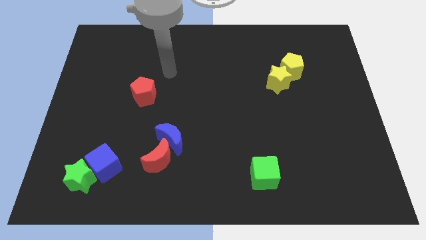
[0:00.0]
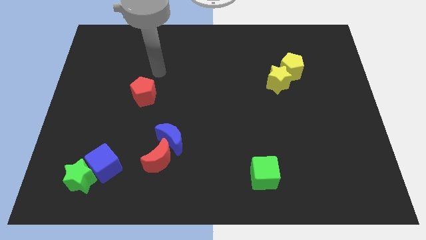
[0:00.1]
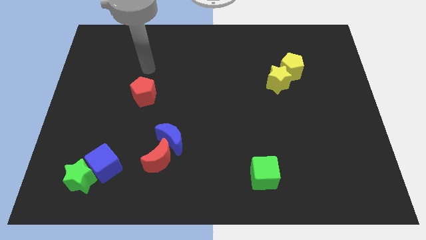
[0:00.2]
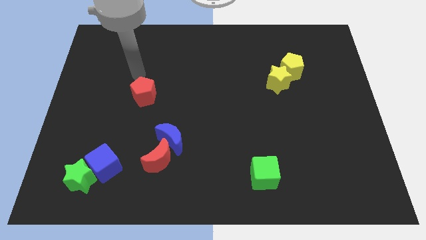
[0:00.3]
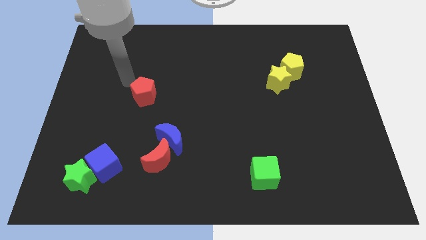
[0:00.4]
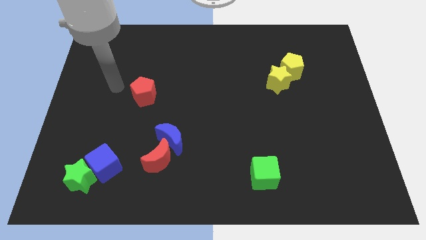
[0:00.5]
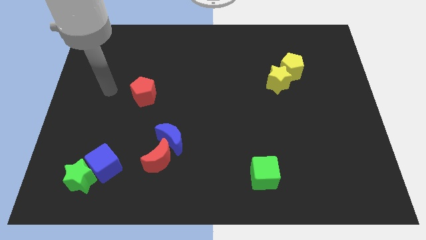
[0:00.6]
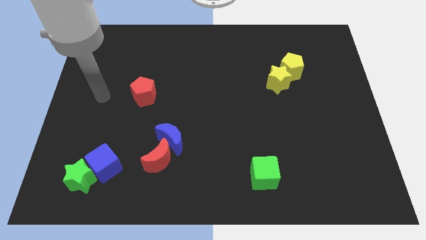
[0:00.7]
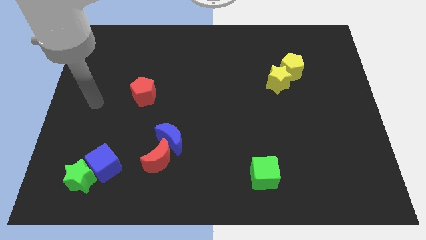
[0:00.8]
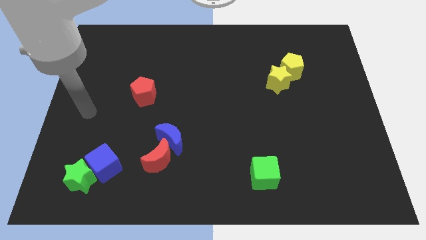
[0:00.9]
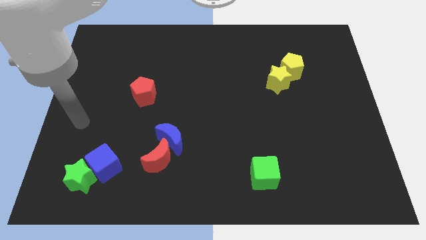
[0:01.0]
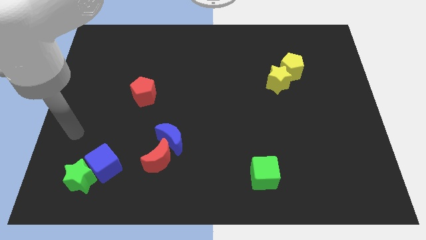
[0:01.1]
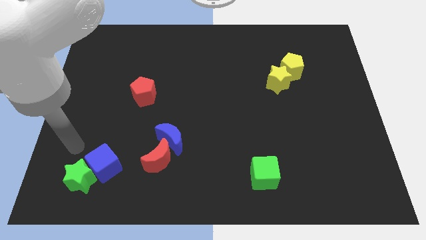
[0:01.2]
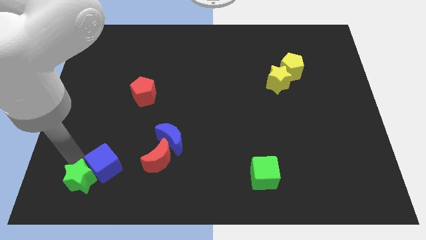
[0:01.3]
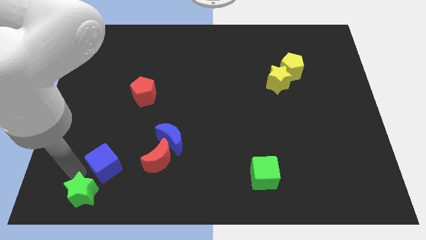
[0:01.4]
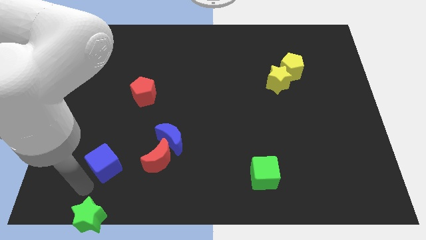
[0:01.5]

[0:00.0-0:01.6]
move the blue cube away from the green star

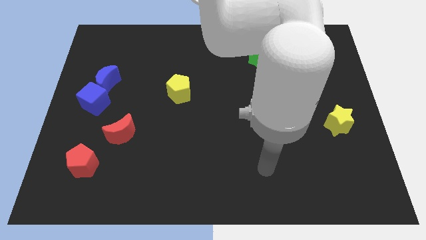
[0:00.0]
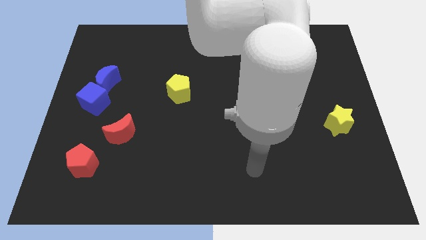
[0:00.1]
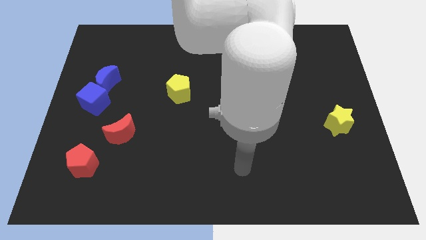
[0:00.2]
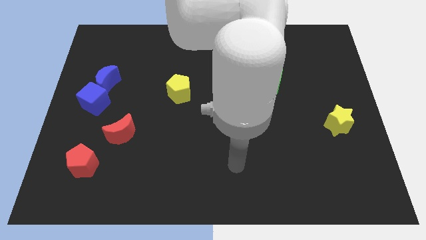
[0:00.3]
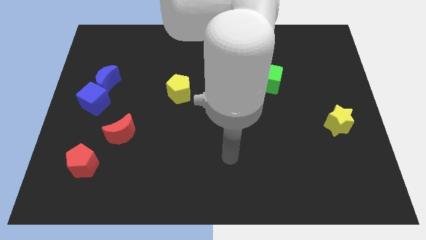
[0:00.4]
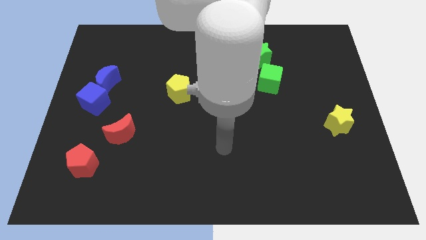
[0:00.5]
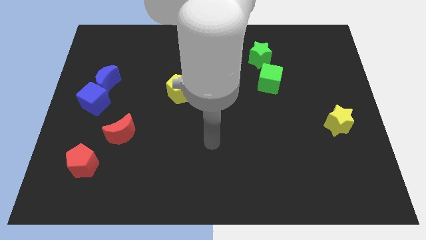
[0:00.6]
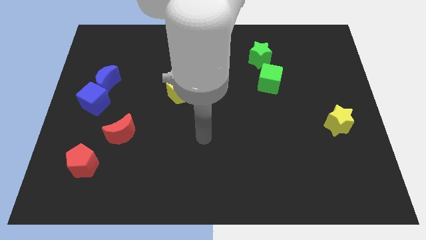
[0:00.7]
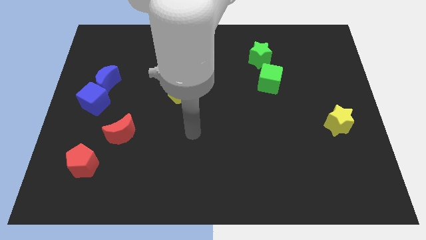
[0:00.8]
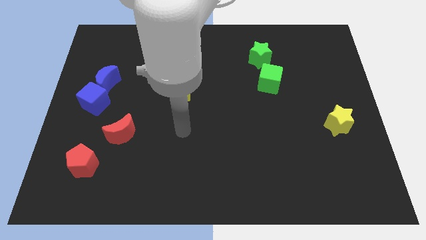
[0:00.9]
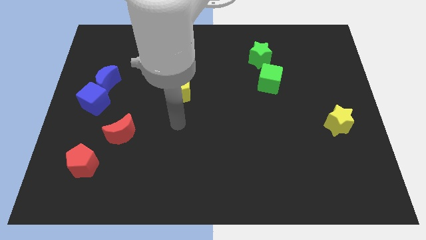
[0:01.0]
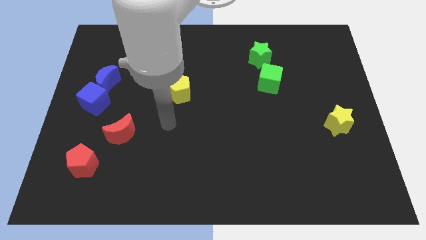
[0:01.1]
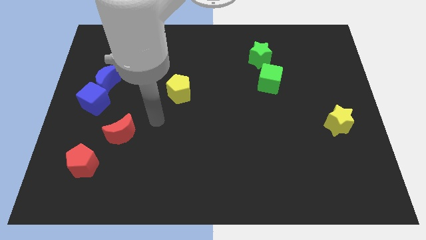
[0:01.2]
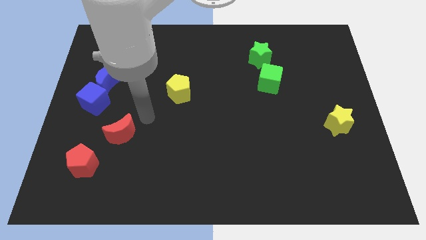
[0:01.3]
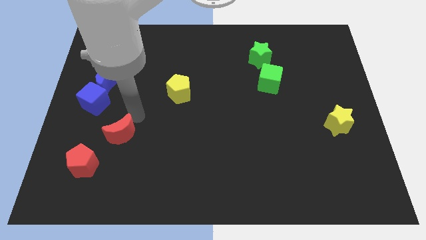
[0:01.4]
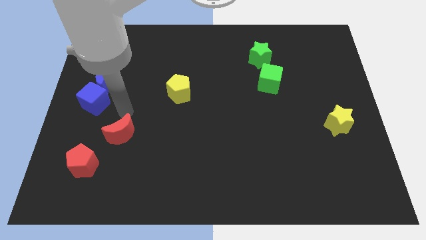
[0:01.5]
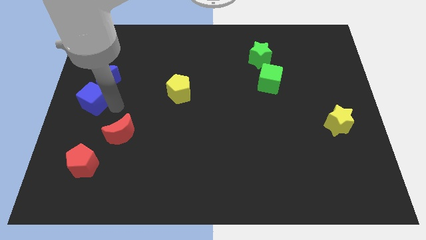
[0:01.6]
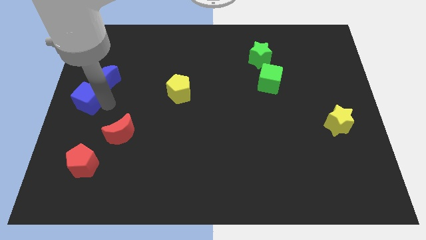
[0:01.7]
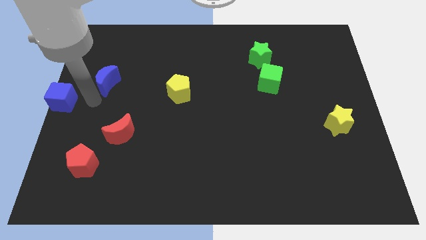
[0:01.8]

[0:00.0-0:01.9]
move the blue moon away from the blue cube

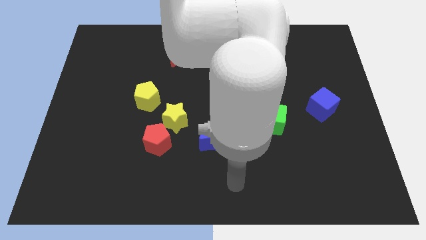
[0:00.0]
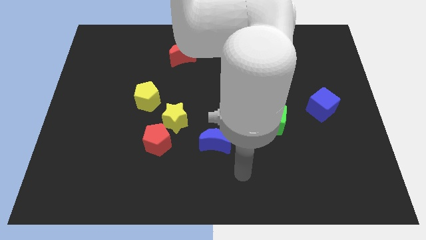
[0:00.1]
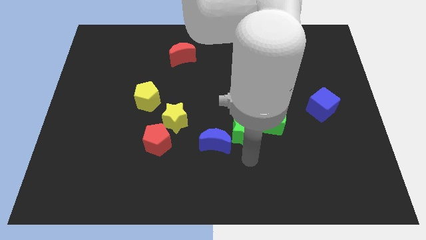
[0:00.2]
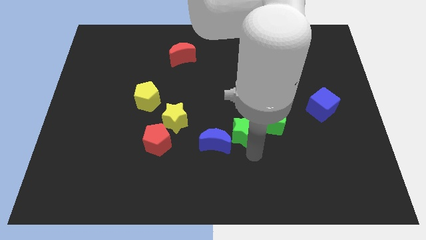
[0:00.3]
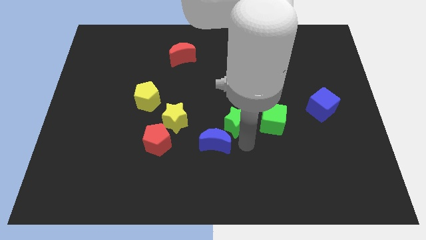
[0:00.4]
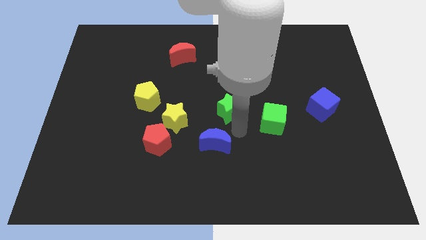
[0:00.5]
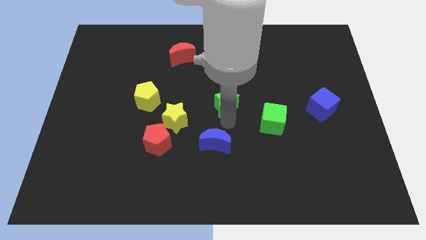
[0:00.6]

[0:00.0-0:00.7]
separate the blue moon from the green star

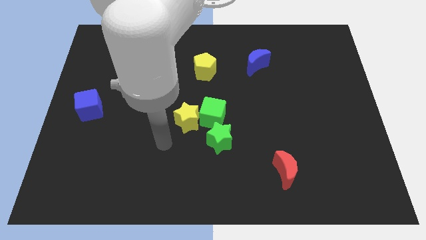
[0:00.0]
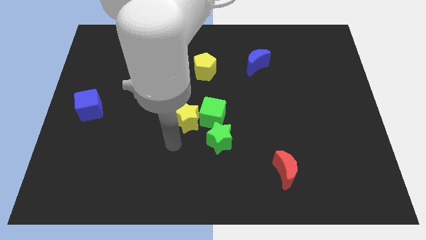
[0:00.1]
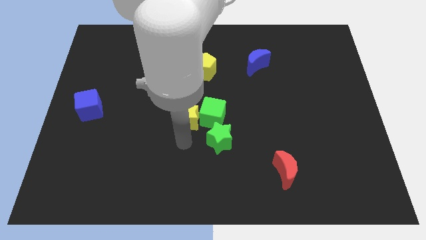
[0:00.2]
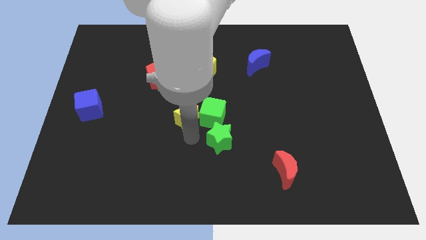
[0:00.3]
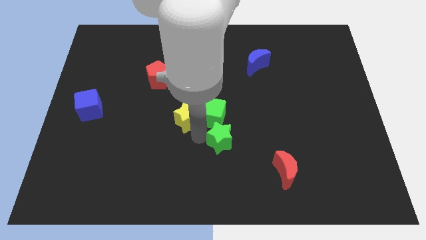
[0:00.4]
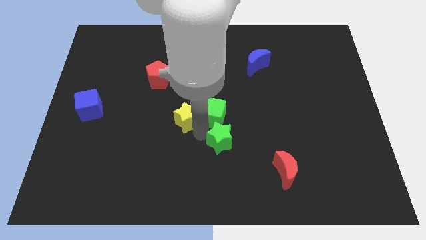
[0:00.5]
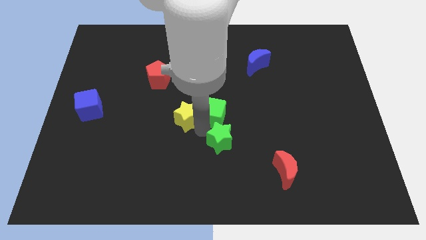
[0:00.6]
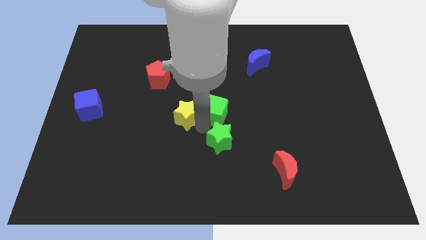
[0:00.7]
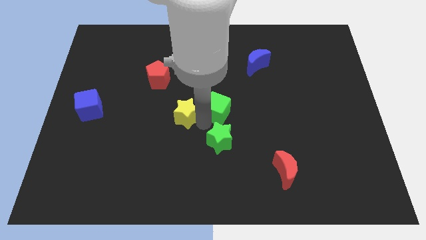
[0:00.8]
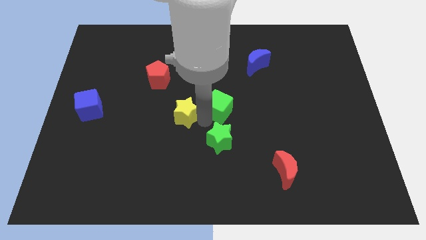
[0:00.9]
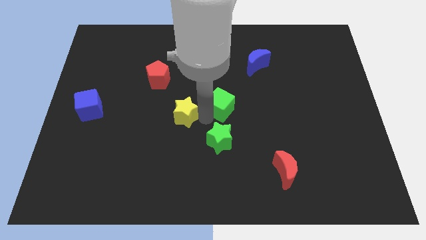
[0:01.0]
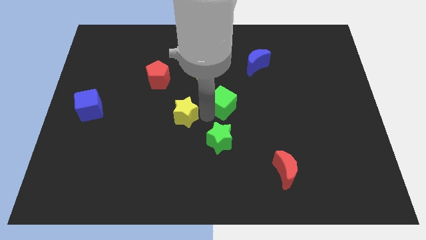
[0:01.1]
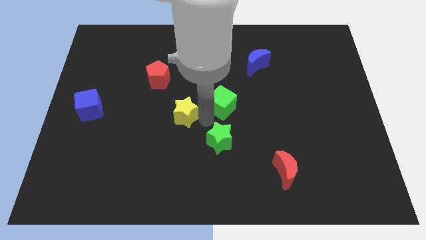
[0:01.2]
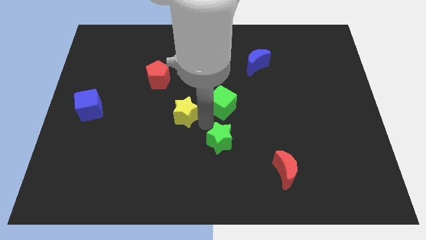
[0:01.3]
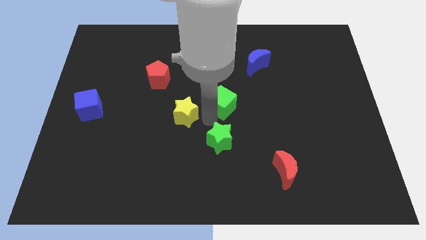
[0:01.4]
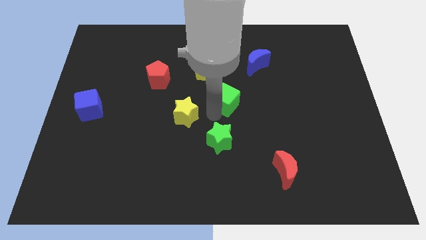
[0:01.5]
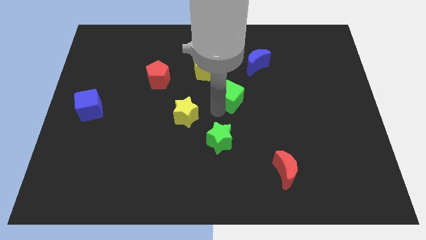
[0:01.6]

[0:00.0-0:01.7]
move the green cube away from the yellow star and green star

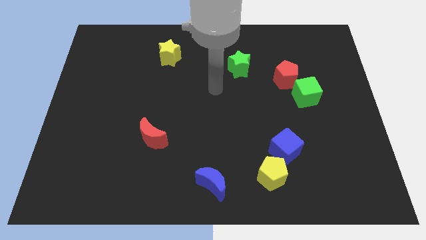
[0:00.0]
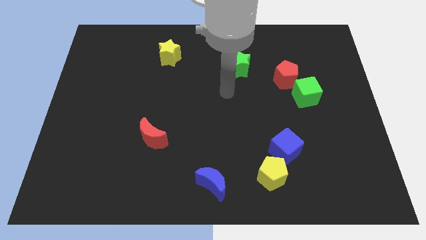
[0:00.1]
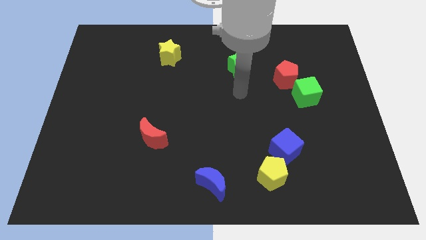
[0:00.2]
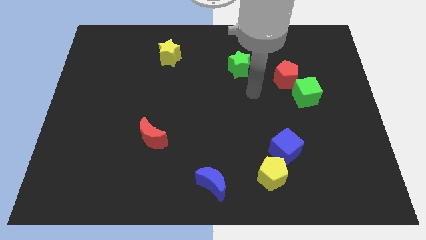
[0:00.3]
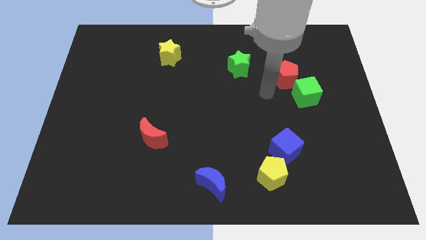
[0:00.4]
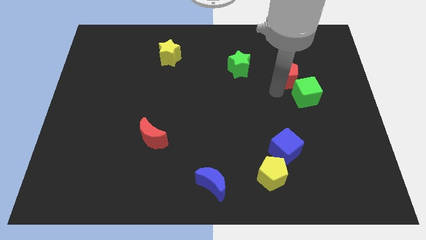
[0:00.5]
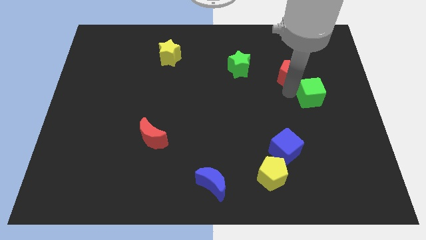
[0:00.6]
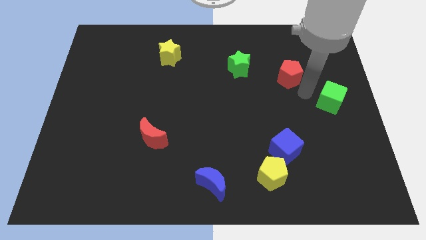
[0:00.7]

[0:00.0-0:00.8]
separate the red pentagon from the green cube

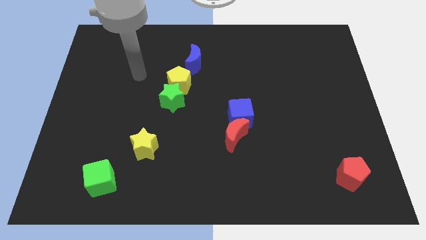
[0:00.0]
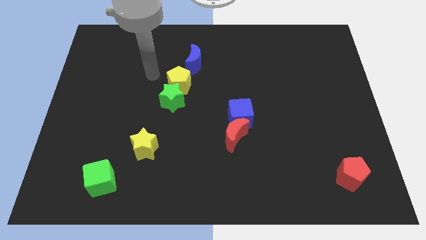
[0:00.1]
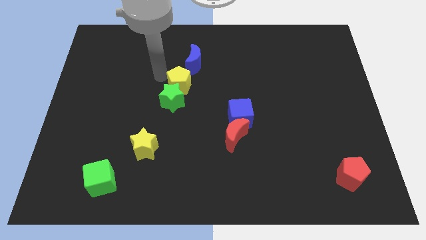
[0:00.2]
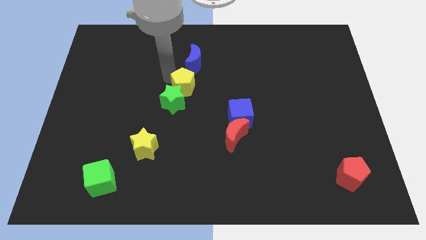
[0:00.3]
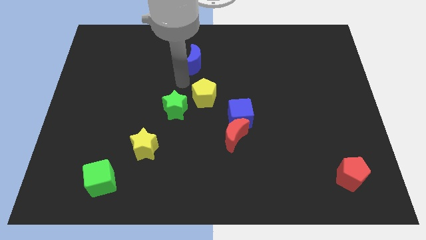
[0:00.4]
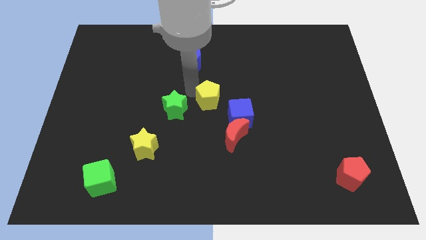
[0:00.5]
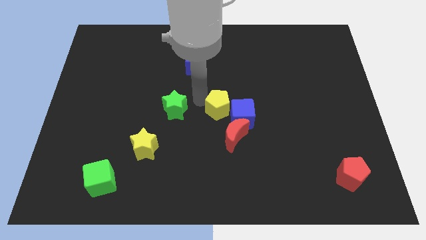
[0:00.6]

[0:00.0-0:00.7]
move the green star away from the yellow pentagon

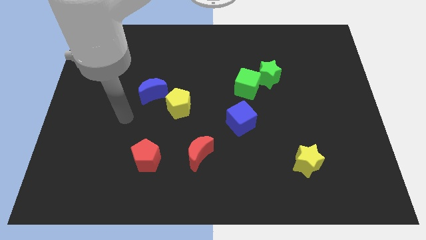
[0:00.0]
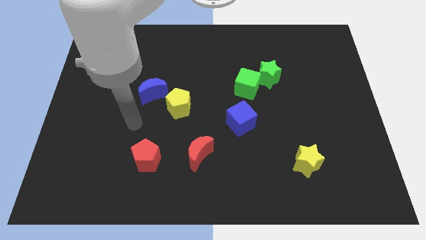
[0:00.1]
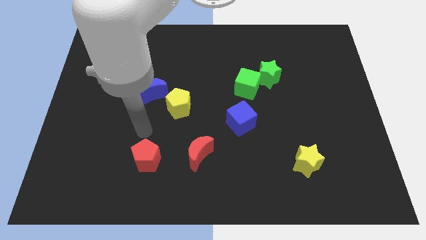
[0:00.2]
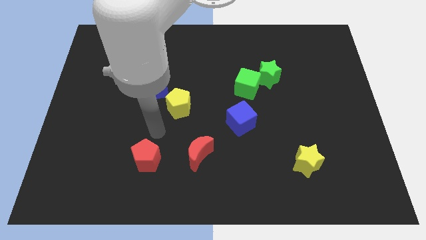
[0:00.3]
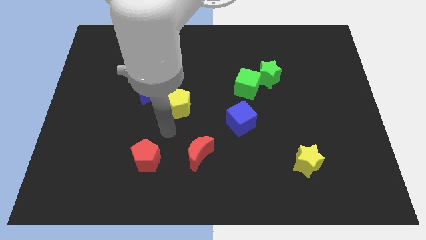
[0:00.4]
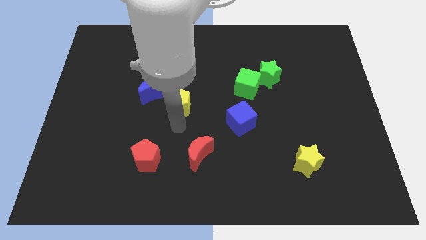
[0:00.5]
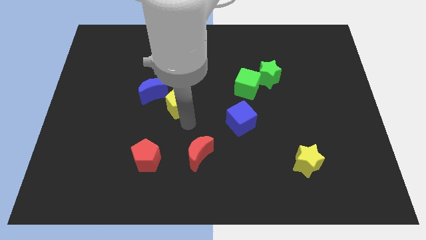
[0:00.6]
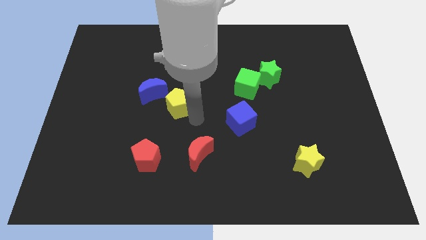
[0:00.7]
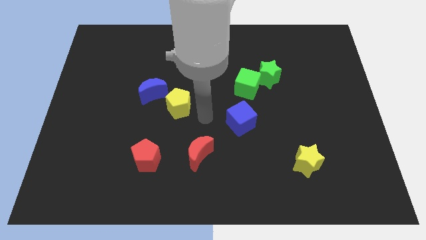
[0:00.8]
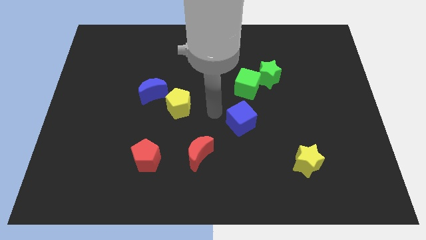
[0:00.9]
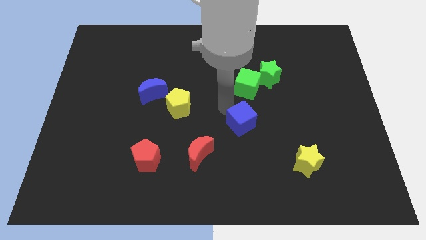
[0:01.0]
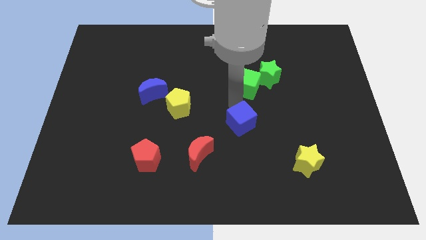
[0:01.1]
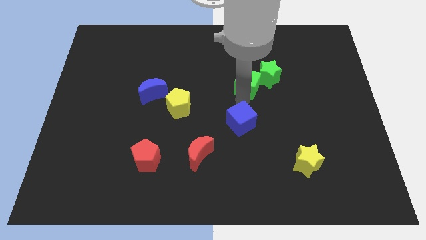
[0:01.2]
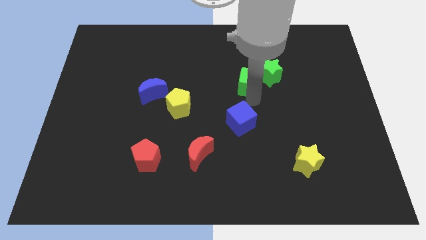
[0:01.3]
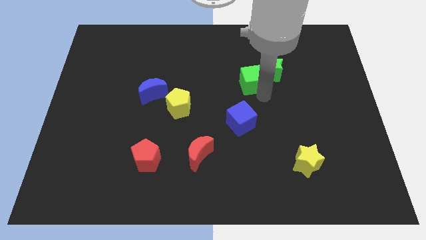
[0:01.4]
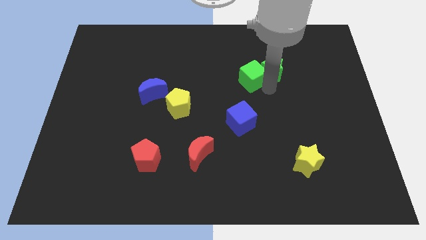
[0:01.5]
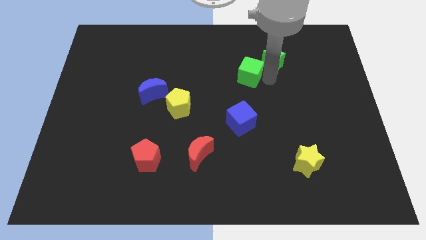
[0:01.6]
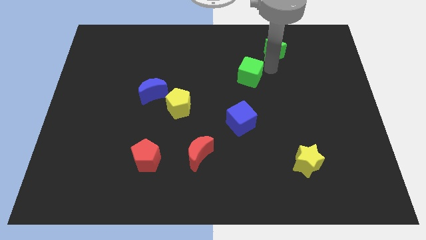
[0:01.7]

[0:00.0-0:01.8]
move the green cube away from the green star

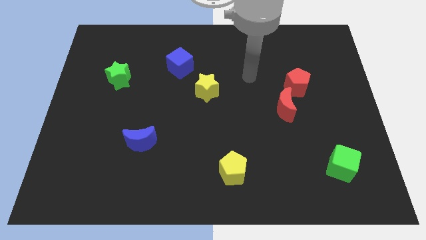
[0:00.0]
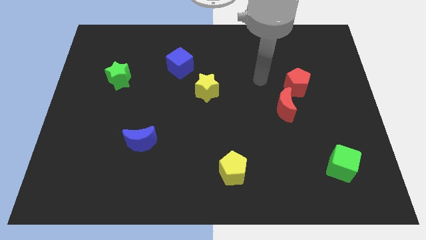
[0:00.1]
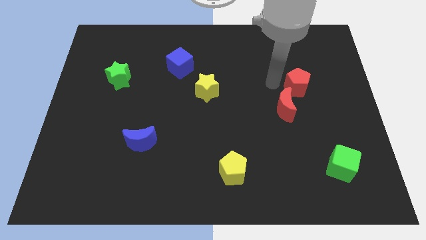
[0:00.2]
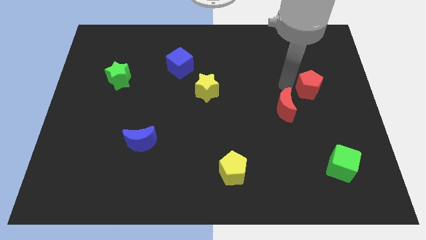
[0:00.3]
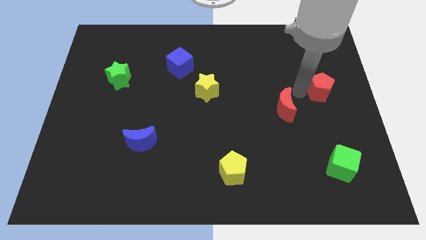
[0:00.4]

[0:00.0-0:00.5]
pull the red moon apart from the red pentagon
